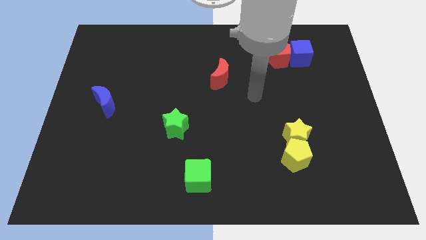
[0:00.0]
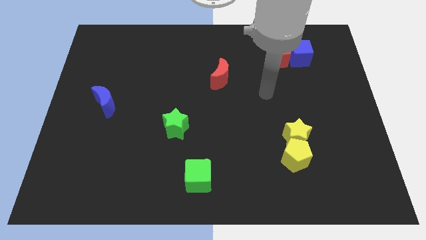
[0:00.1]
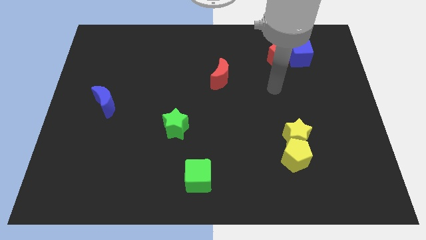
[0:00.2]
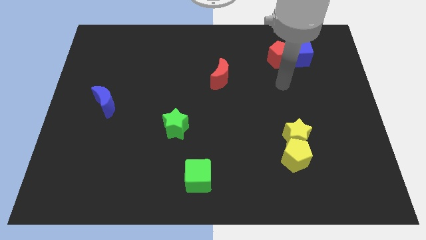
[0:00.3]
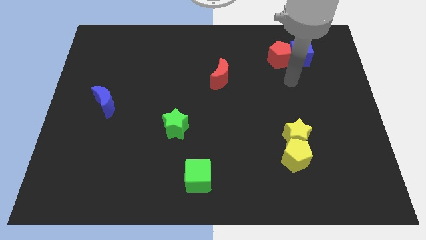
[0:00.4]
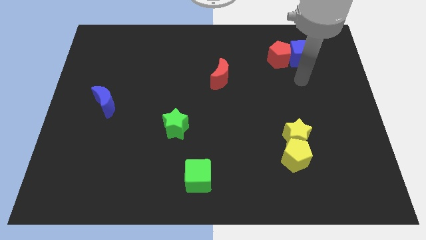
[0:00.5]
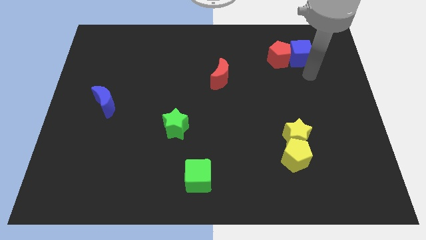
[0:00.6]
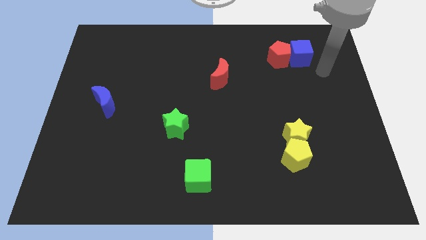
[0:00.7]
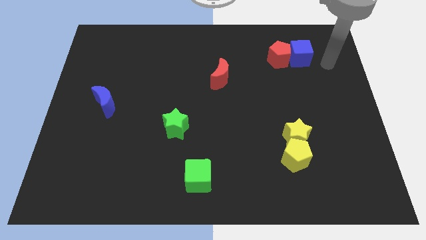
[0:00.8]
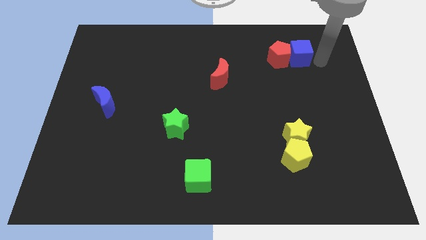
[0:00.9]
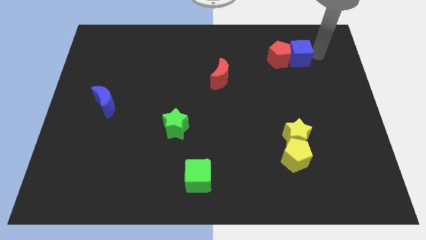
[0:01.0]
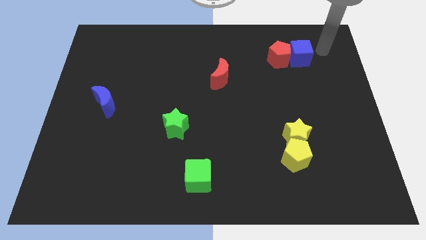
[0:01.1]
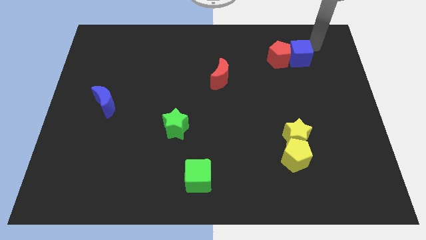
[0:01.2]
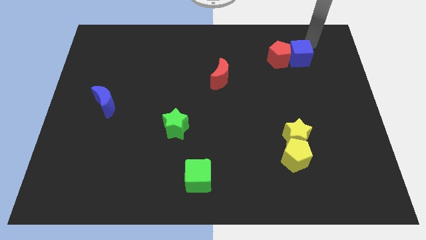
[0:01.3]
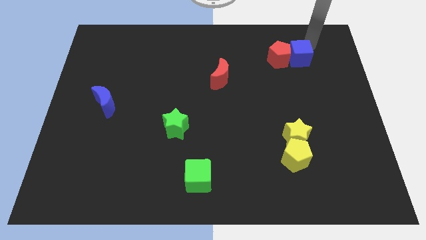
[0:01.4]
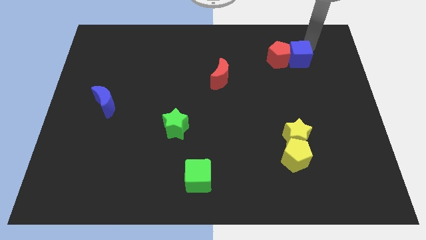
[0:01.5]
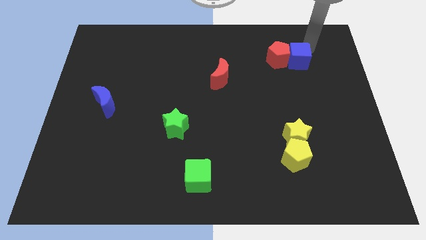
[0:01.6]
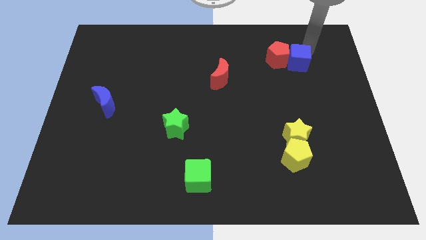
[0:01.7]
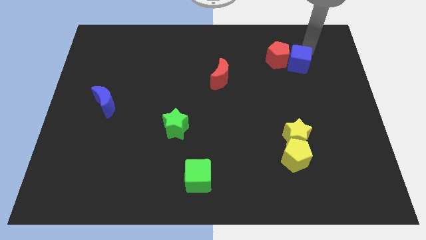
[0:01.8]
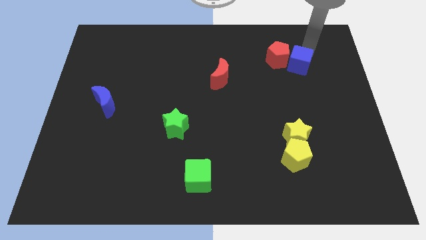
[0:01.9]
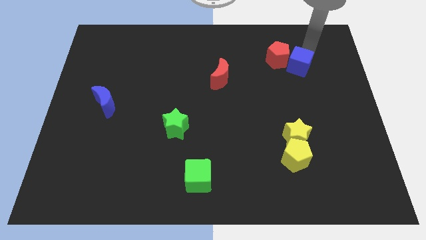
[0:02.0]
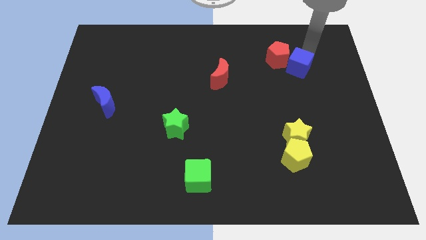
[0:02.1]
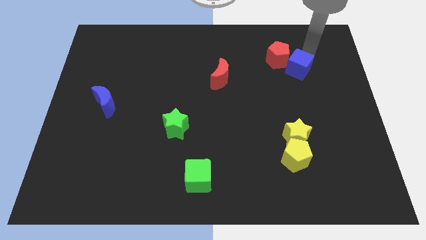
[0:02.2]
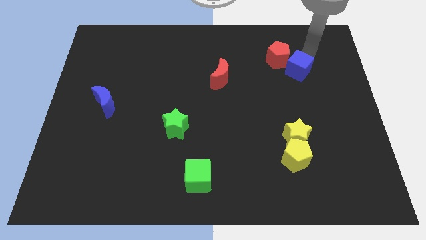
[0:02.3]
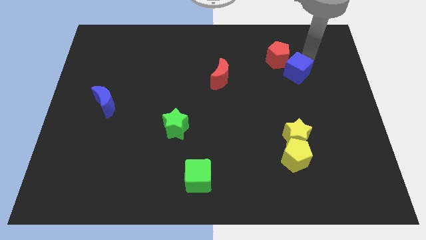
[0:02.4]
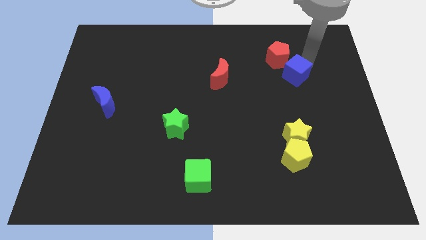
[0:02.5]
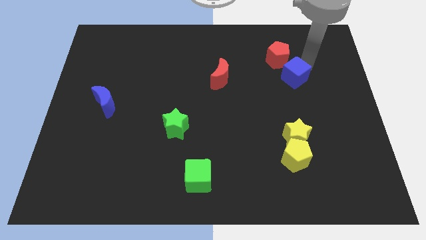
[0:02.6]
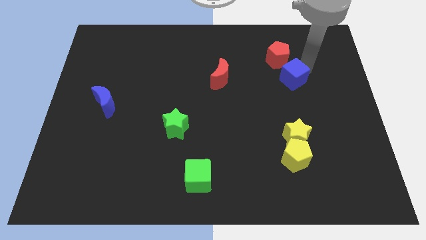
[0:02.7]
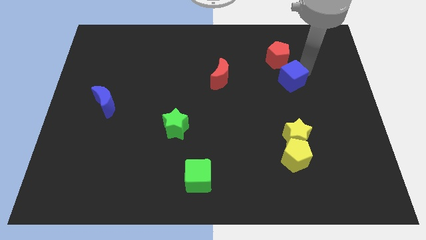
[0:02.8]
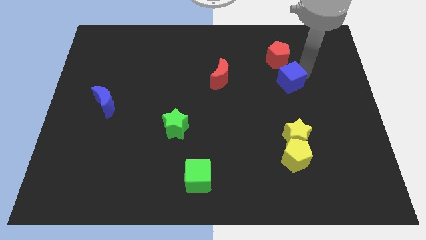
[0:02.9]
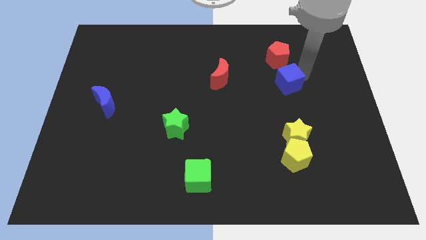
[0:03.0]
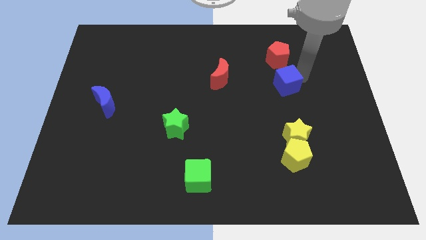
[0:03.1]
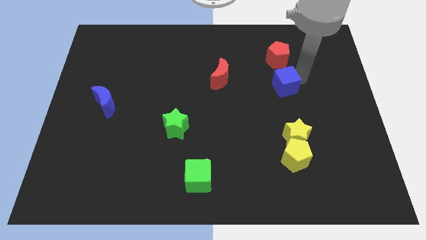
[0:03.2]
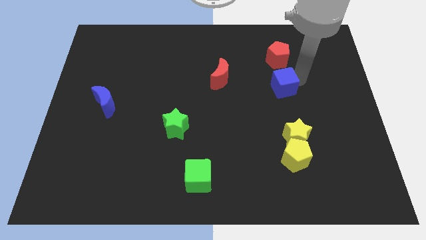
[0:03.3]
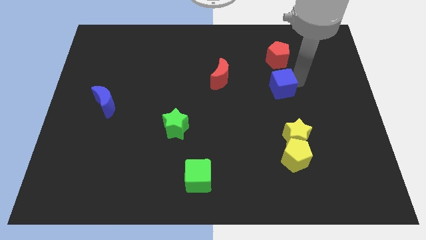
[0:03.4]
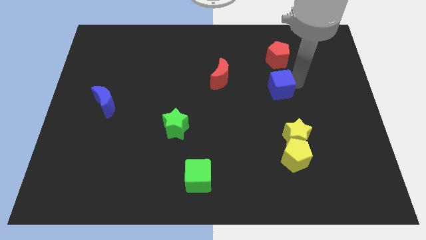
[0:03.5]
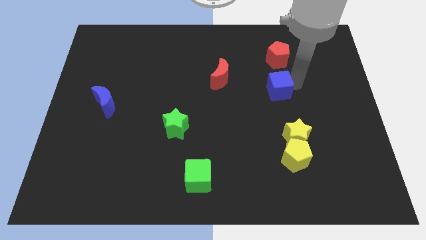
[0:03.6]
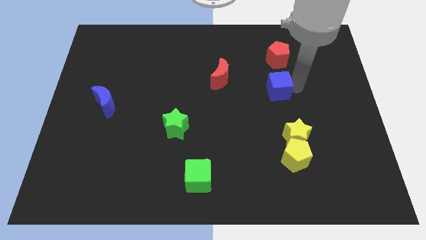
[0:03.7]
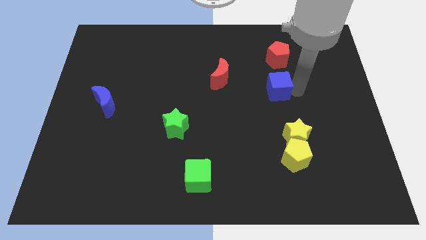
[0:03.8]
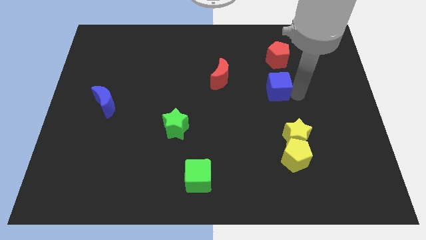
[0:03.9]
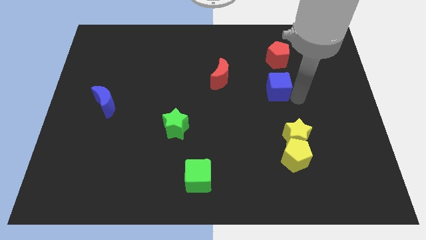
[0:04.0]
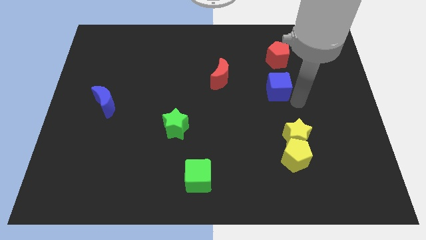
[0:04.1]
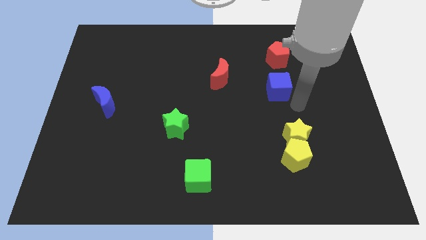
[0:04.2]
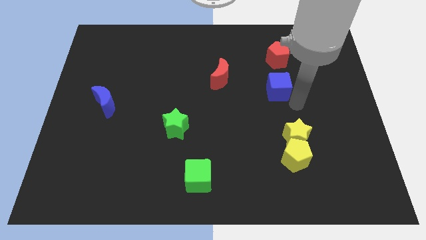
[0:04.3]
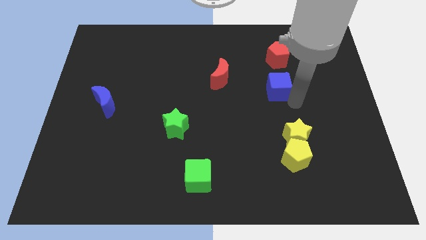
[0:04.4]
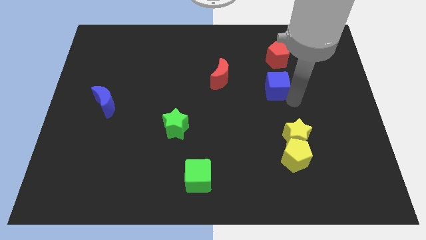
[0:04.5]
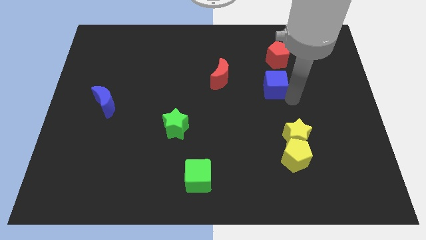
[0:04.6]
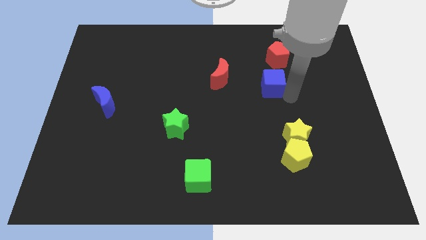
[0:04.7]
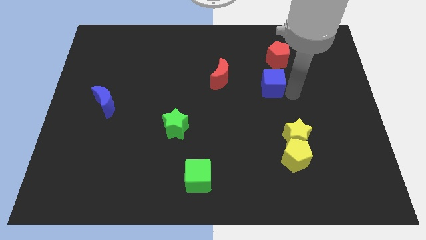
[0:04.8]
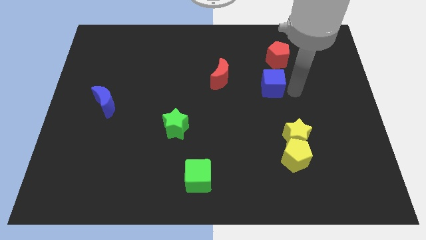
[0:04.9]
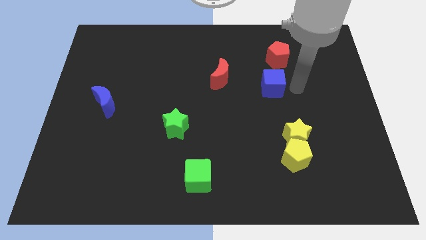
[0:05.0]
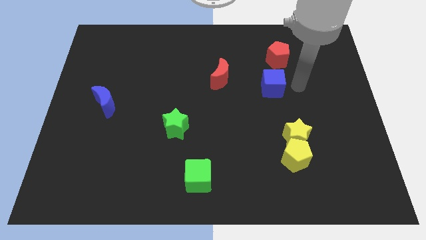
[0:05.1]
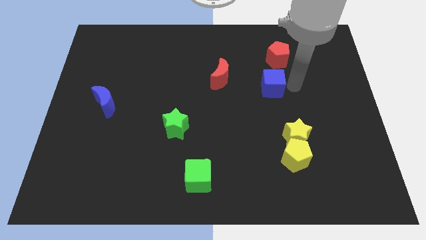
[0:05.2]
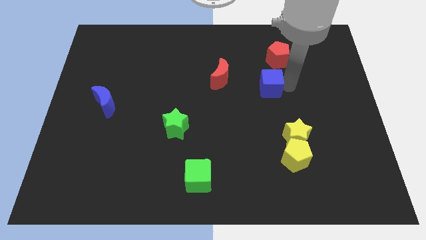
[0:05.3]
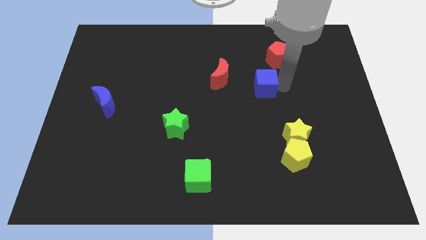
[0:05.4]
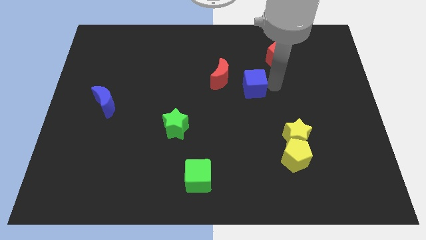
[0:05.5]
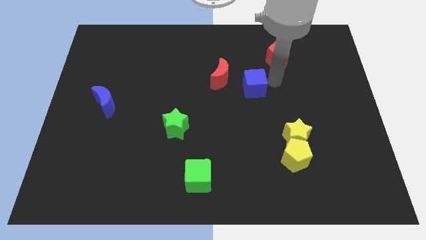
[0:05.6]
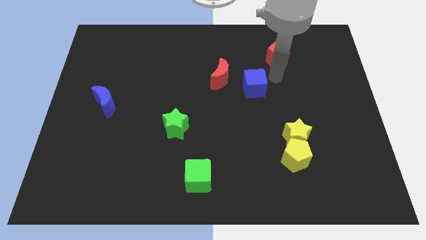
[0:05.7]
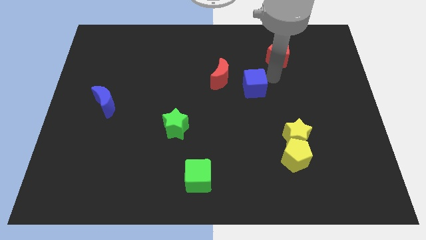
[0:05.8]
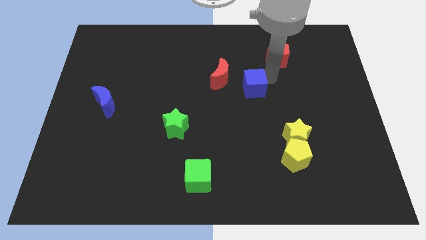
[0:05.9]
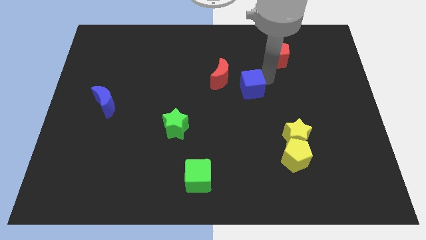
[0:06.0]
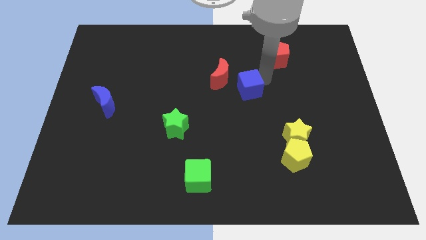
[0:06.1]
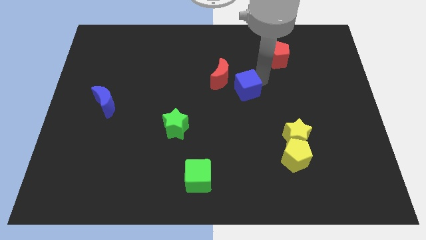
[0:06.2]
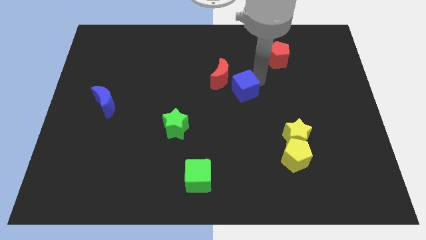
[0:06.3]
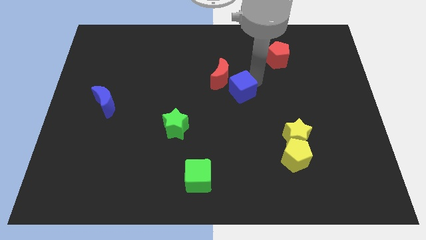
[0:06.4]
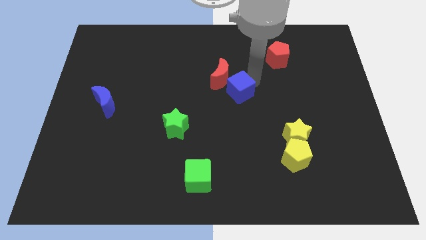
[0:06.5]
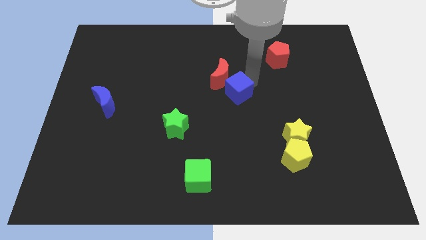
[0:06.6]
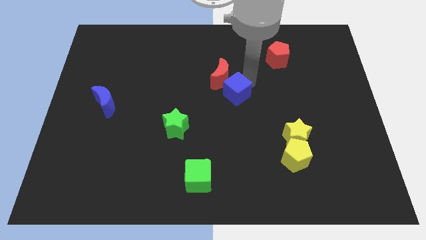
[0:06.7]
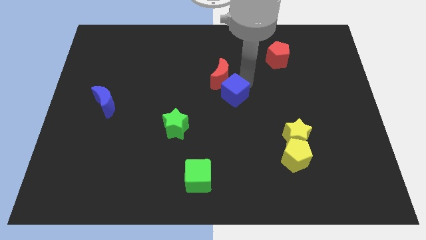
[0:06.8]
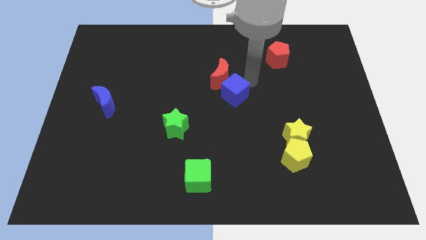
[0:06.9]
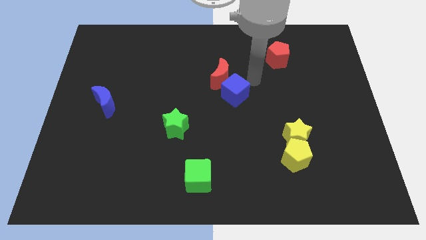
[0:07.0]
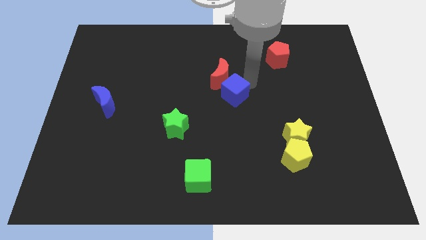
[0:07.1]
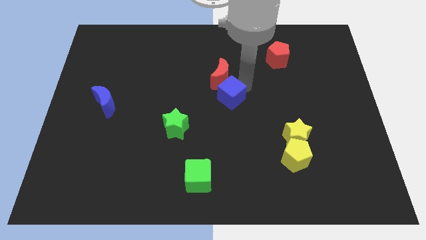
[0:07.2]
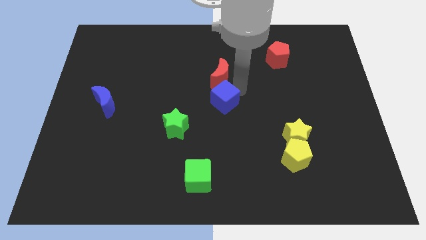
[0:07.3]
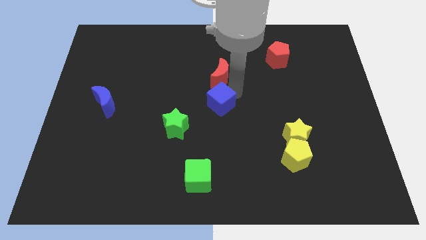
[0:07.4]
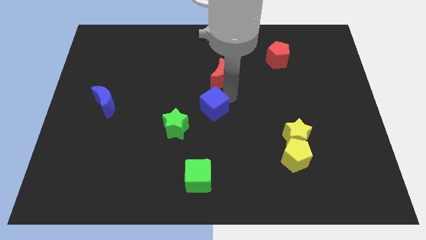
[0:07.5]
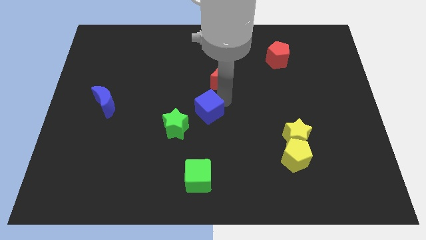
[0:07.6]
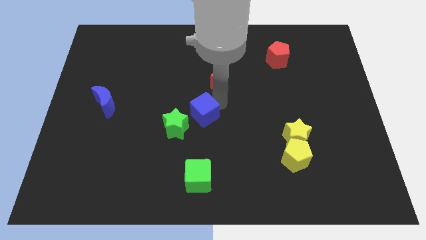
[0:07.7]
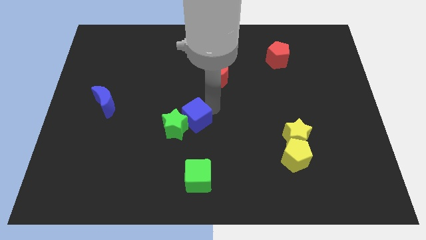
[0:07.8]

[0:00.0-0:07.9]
slide the blue cube close to the green star

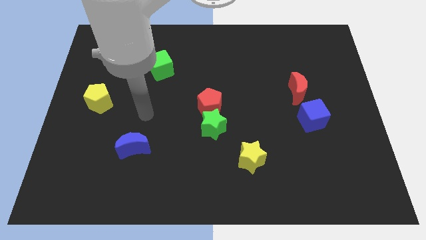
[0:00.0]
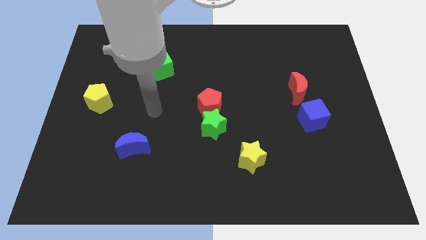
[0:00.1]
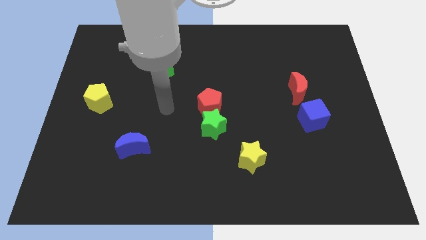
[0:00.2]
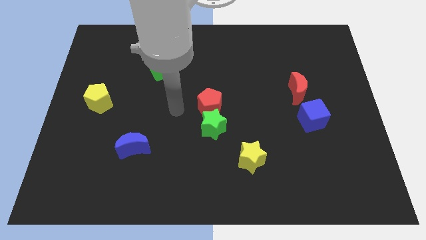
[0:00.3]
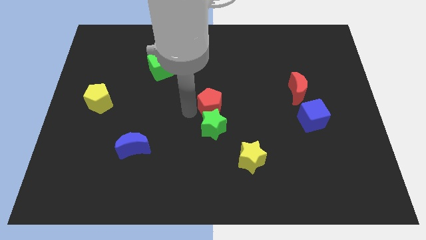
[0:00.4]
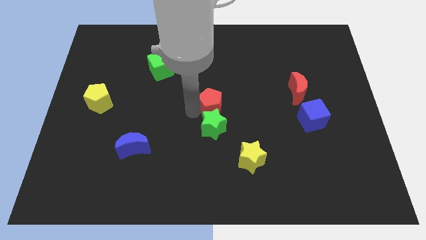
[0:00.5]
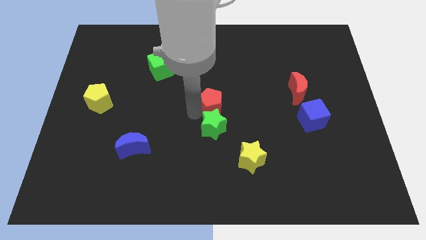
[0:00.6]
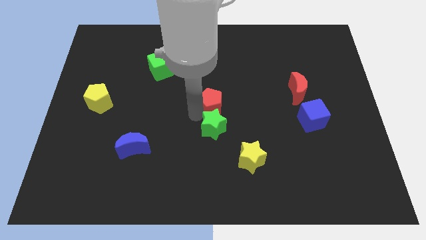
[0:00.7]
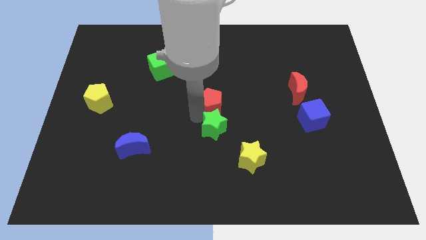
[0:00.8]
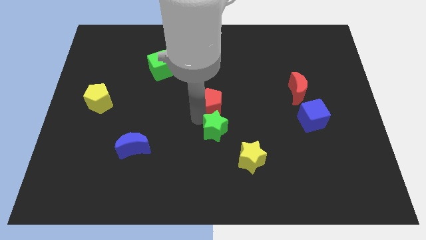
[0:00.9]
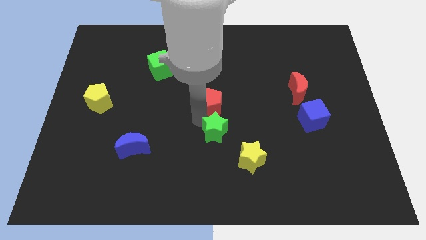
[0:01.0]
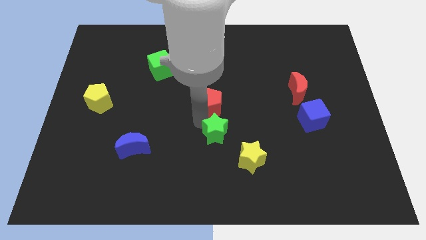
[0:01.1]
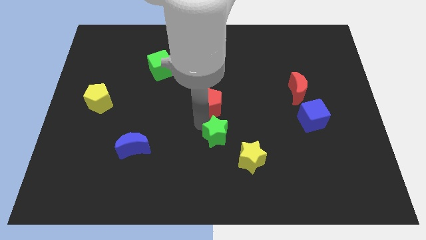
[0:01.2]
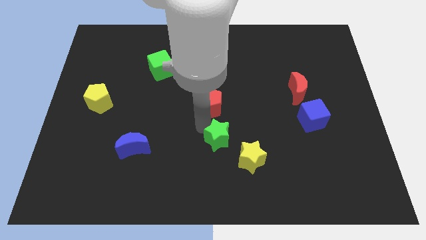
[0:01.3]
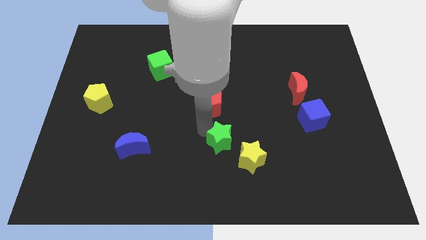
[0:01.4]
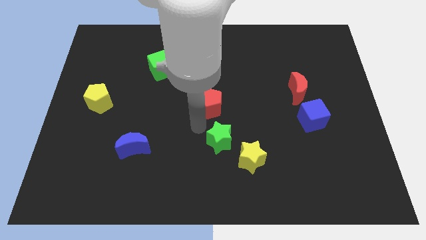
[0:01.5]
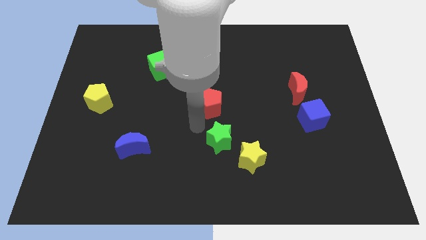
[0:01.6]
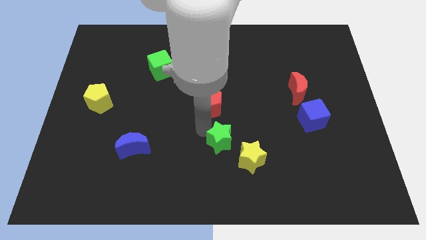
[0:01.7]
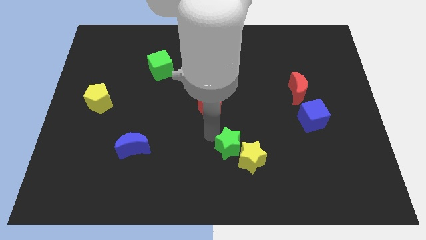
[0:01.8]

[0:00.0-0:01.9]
move the green star close to the yellow star
